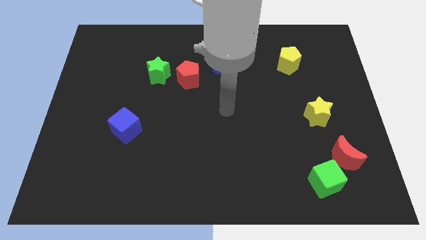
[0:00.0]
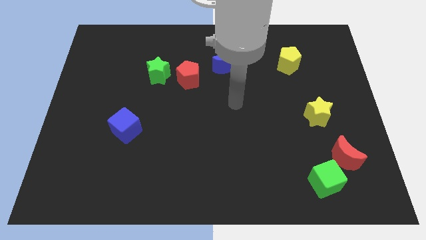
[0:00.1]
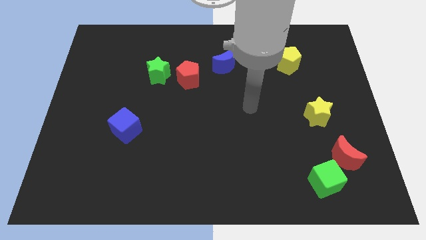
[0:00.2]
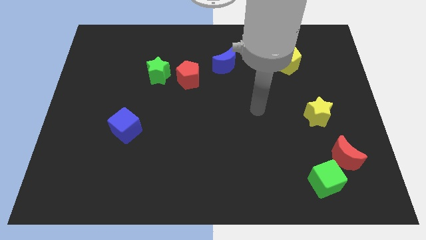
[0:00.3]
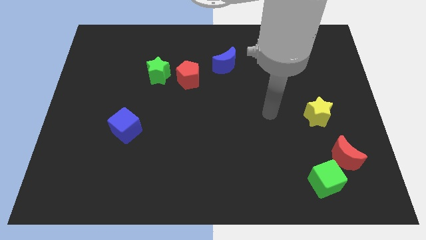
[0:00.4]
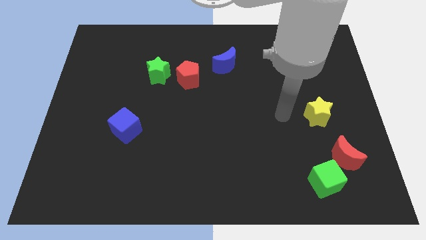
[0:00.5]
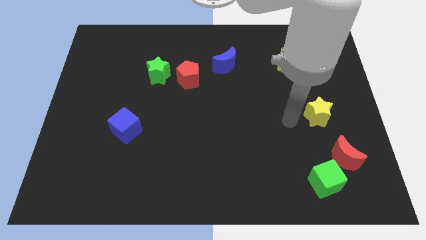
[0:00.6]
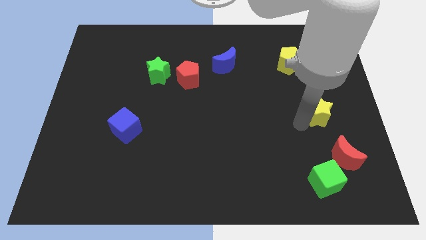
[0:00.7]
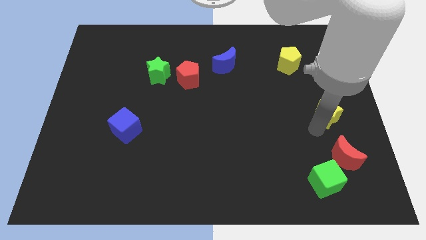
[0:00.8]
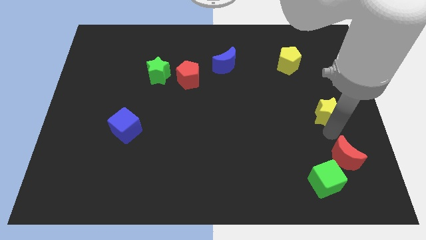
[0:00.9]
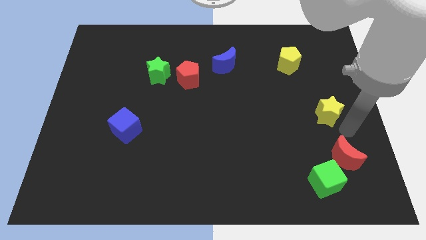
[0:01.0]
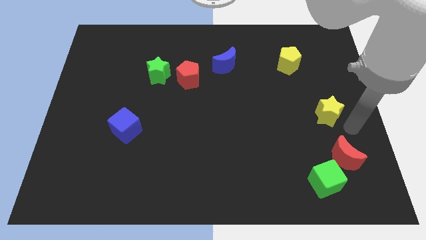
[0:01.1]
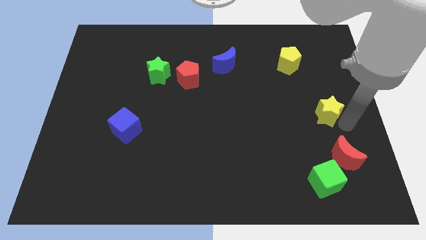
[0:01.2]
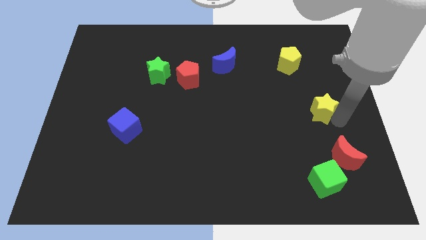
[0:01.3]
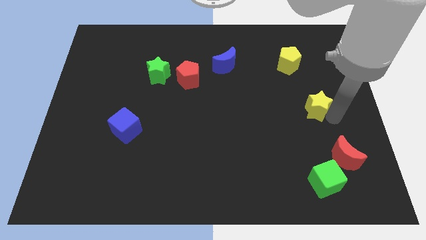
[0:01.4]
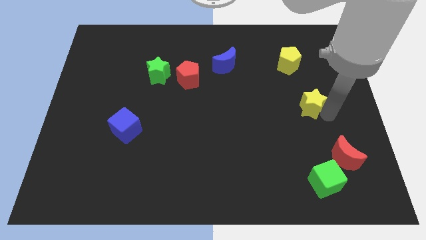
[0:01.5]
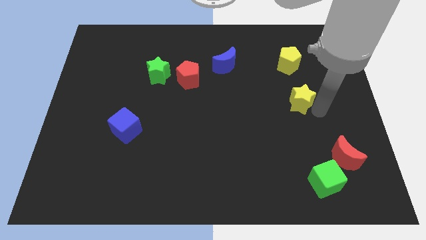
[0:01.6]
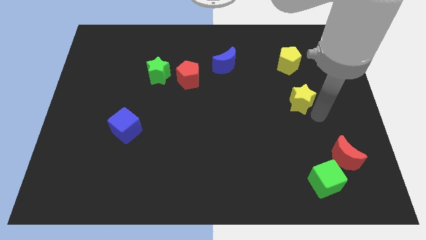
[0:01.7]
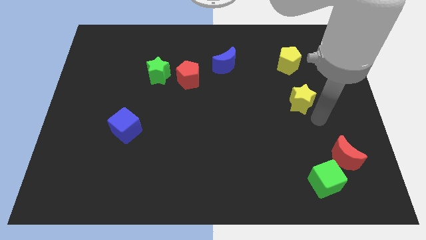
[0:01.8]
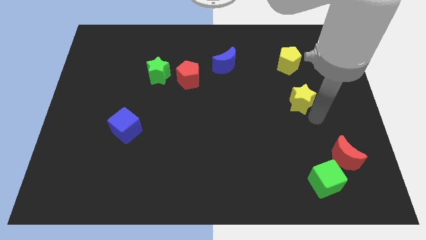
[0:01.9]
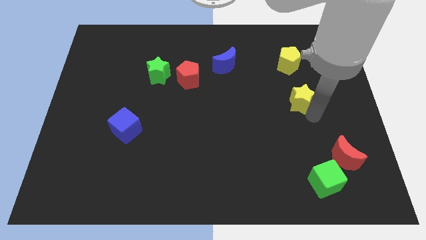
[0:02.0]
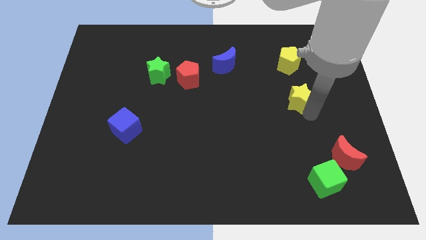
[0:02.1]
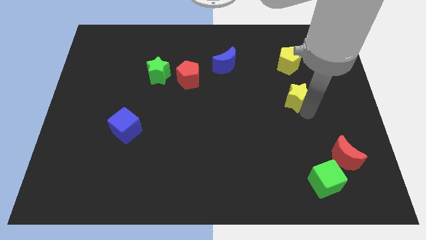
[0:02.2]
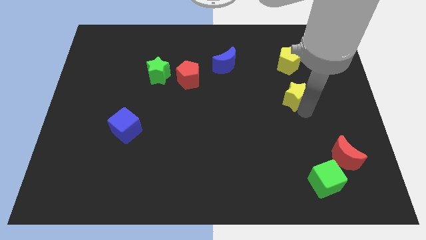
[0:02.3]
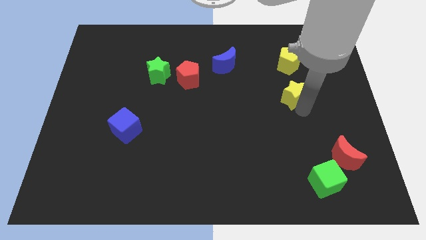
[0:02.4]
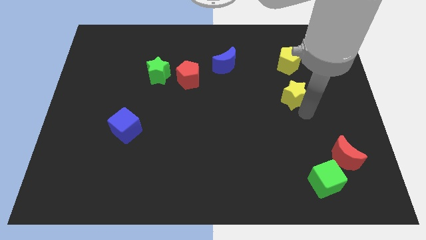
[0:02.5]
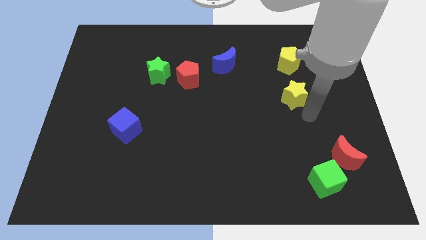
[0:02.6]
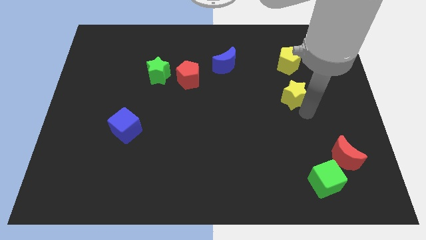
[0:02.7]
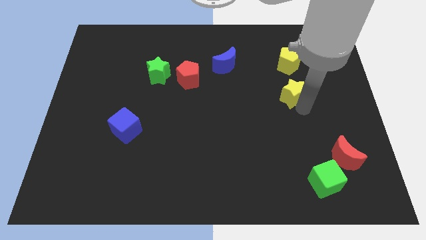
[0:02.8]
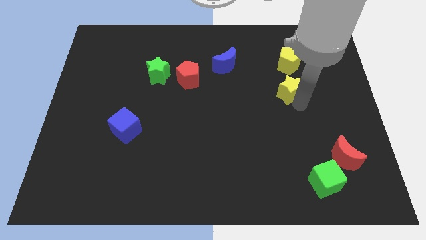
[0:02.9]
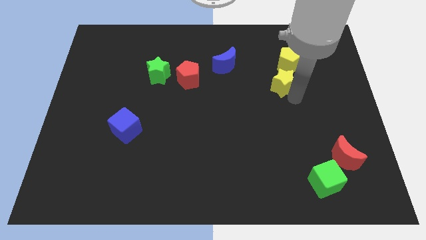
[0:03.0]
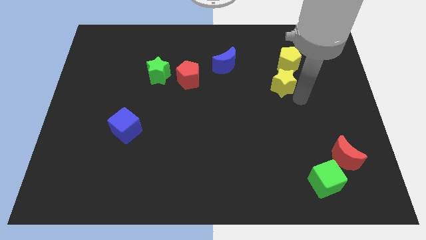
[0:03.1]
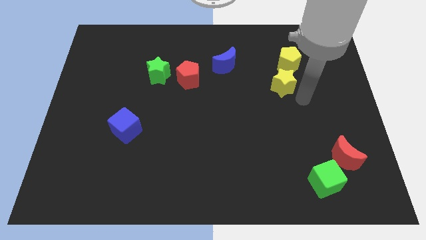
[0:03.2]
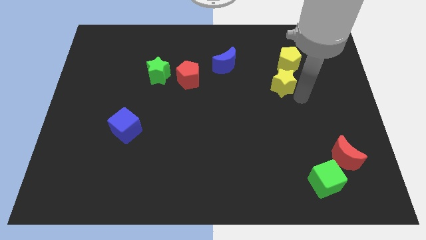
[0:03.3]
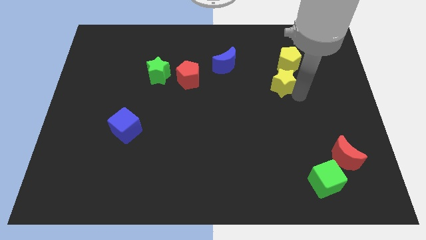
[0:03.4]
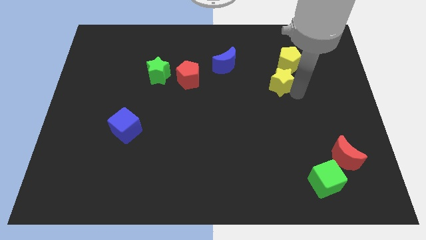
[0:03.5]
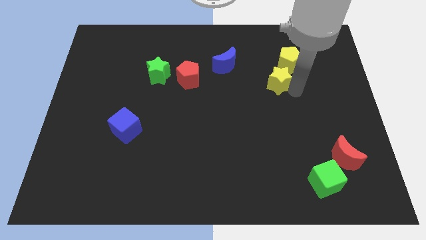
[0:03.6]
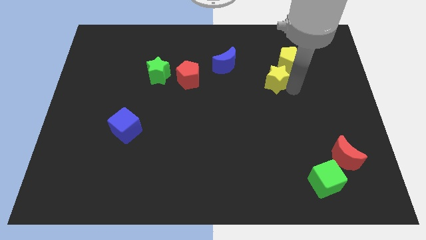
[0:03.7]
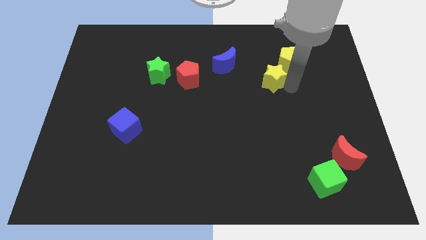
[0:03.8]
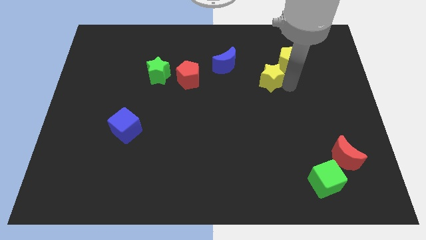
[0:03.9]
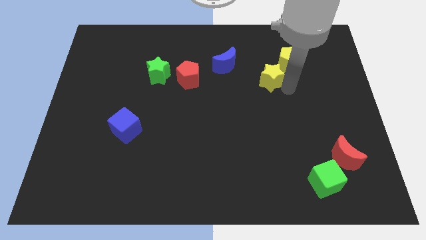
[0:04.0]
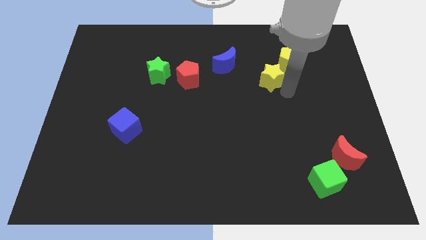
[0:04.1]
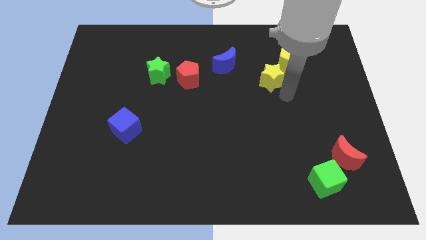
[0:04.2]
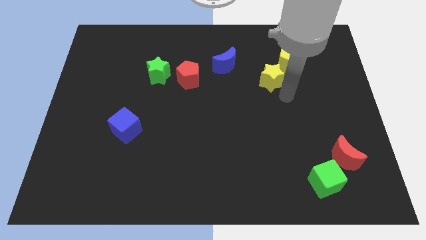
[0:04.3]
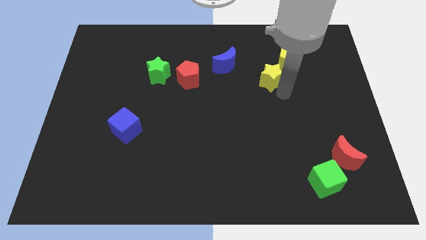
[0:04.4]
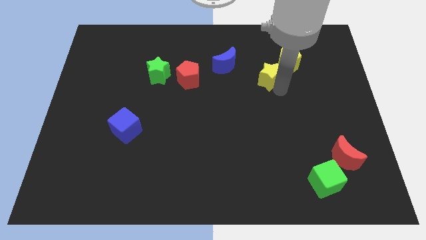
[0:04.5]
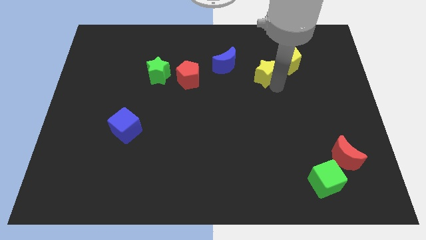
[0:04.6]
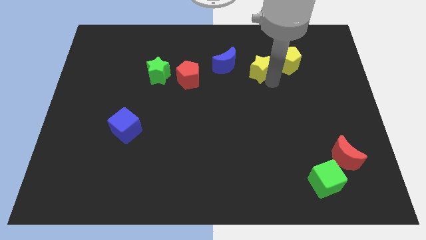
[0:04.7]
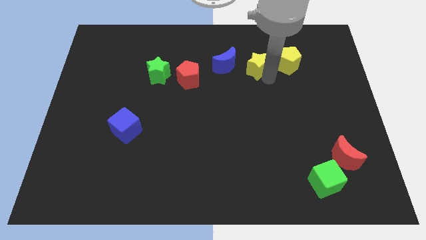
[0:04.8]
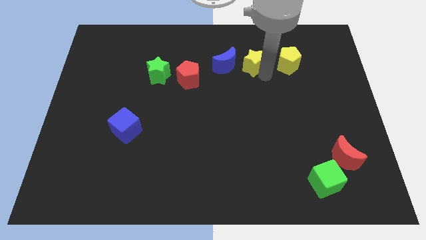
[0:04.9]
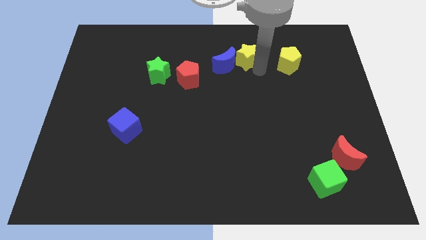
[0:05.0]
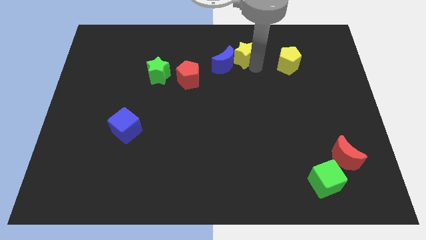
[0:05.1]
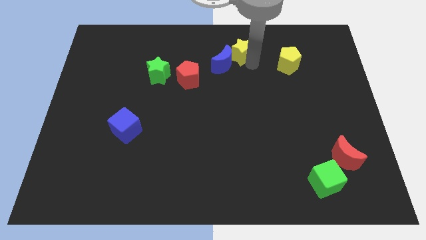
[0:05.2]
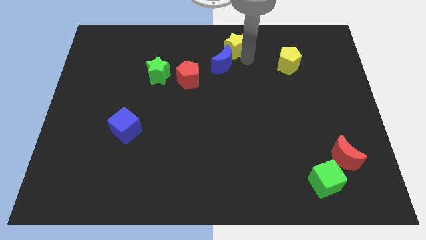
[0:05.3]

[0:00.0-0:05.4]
move the yellow star to the top side

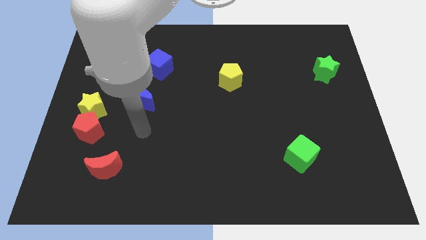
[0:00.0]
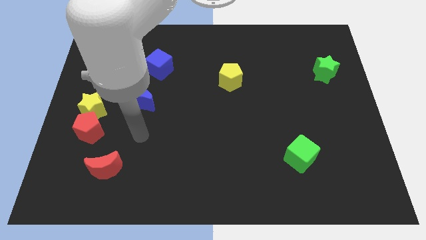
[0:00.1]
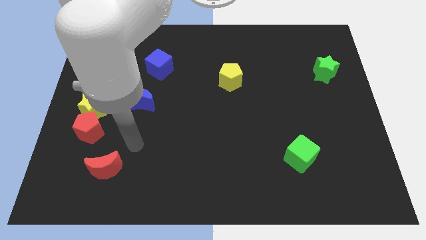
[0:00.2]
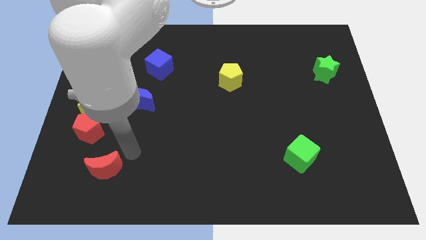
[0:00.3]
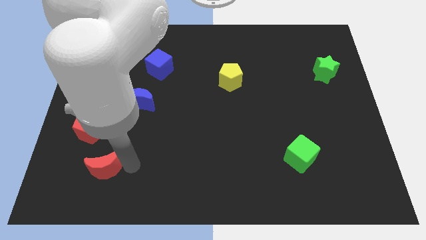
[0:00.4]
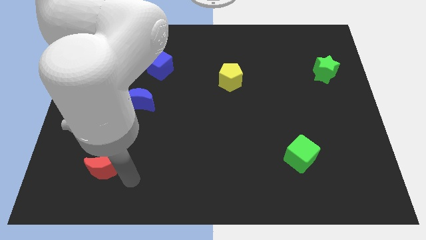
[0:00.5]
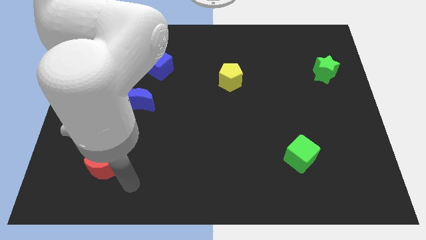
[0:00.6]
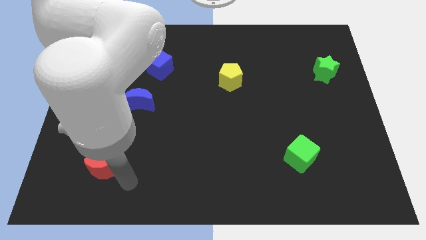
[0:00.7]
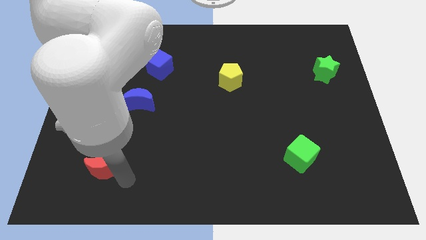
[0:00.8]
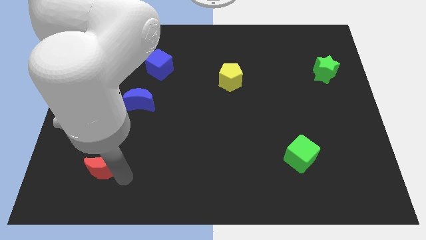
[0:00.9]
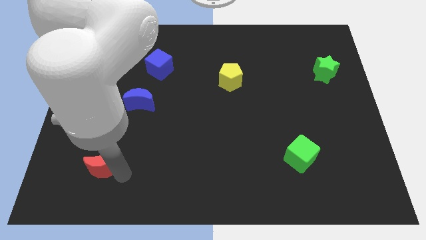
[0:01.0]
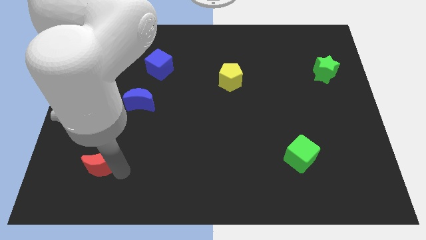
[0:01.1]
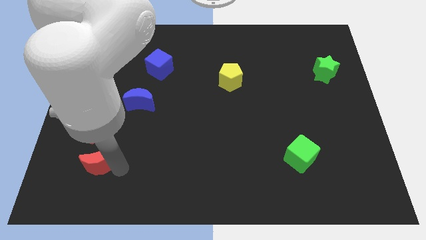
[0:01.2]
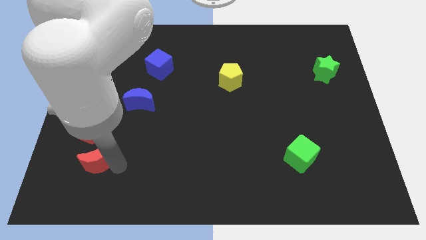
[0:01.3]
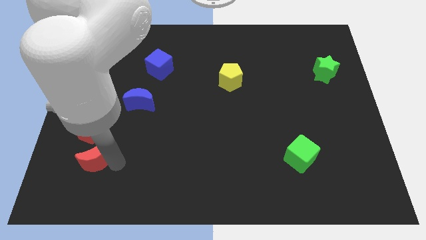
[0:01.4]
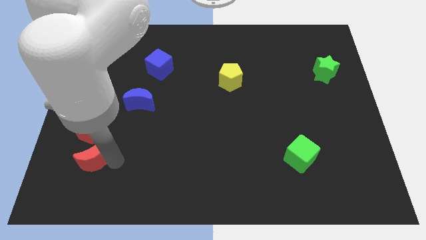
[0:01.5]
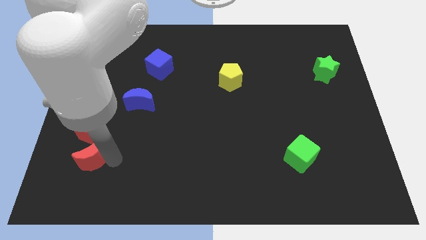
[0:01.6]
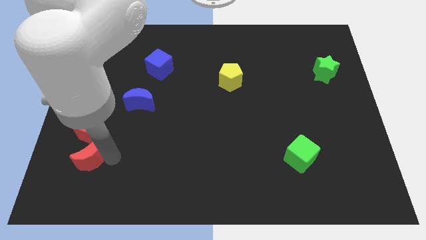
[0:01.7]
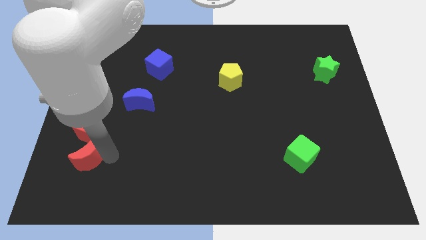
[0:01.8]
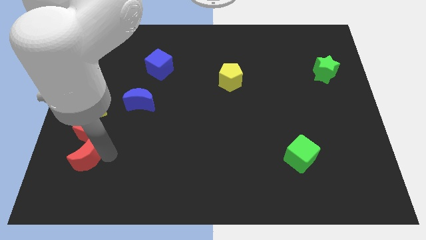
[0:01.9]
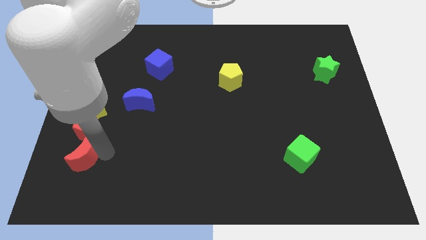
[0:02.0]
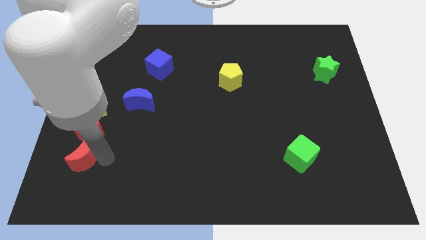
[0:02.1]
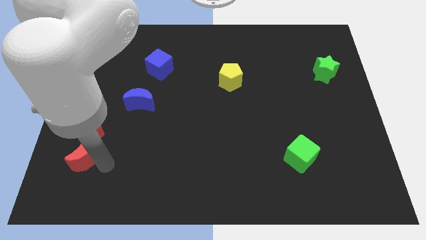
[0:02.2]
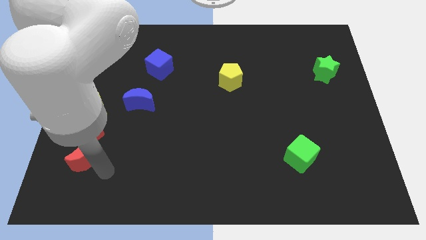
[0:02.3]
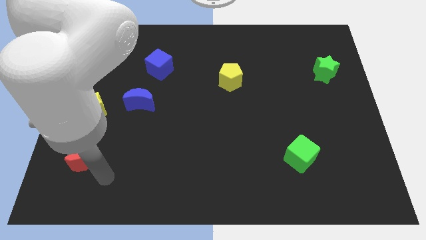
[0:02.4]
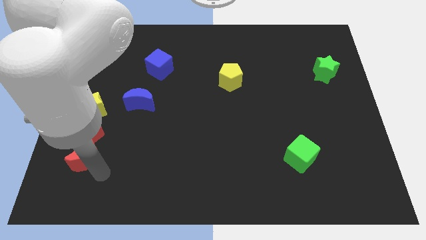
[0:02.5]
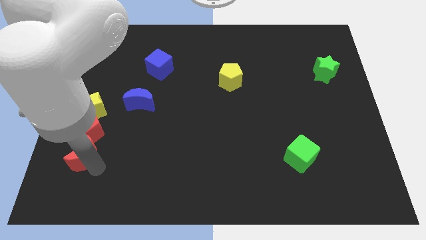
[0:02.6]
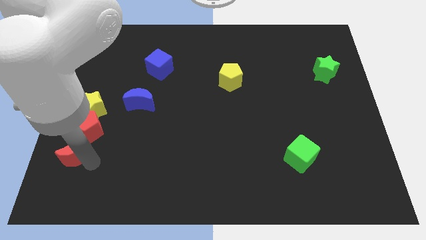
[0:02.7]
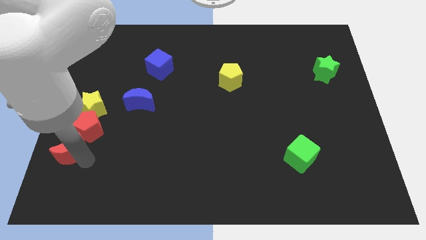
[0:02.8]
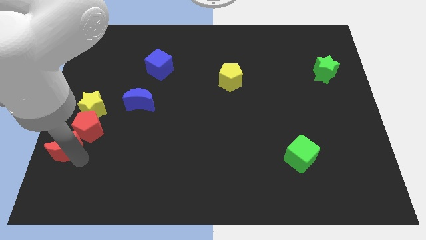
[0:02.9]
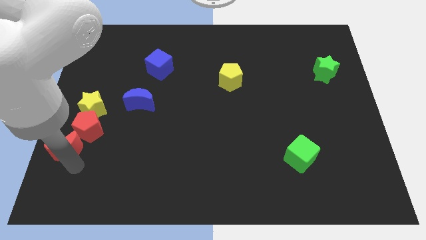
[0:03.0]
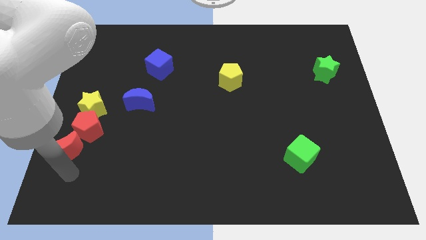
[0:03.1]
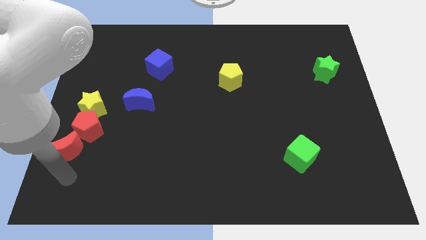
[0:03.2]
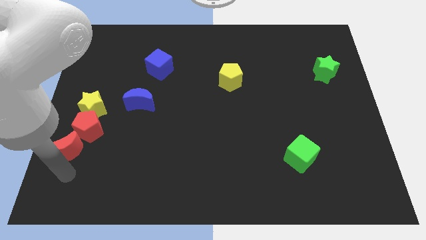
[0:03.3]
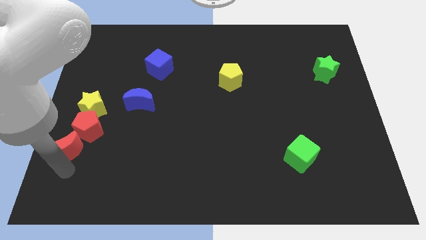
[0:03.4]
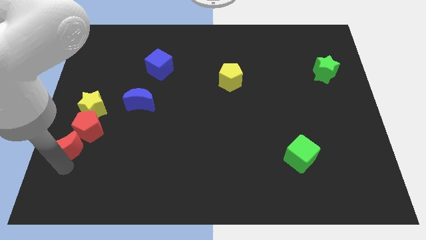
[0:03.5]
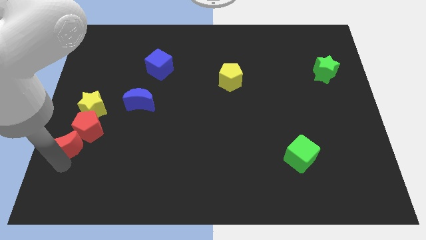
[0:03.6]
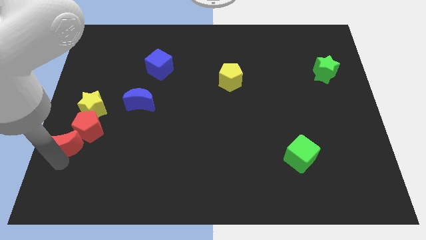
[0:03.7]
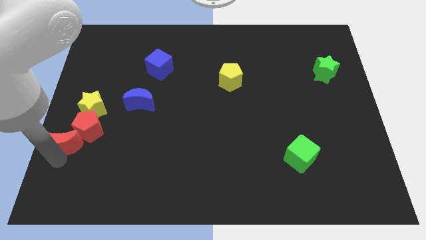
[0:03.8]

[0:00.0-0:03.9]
put the red moon to the left side
